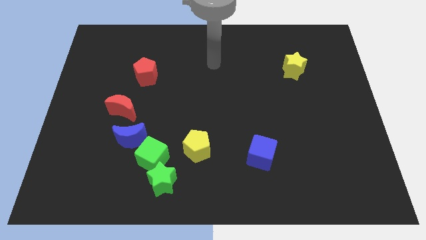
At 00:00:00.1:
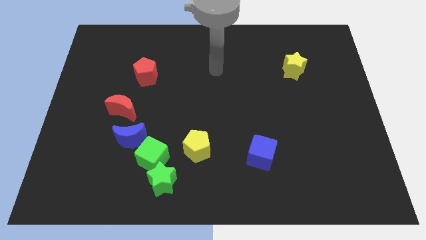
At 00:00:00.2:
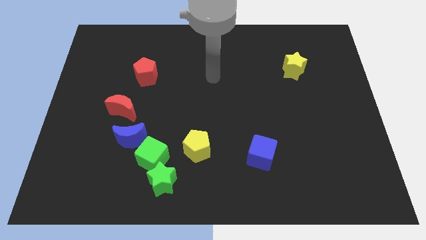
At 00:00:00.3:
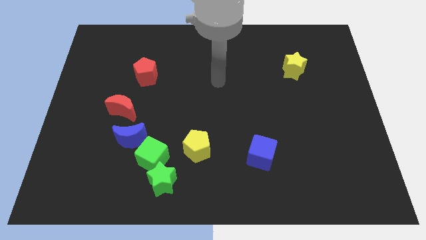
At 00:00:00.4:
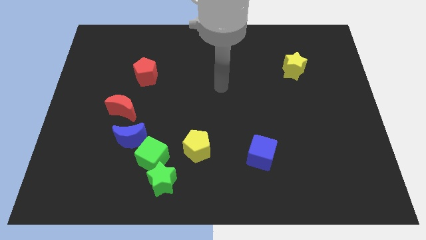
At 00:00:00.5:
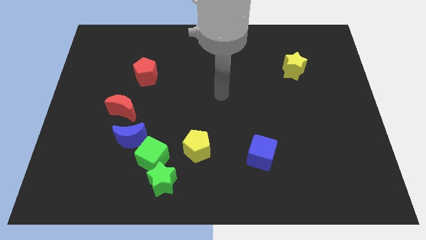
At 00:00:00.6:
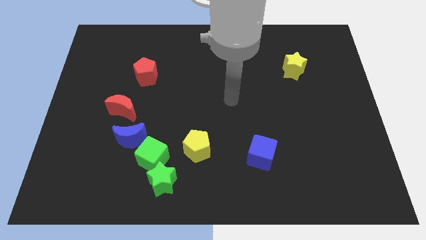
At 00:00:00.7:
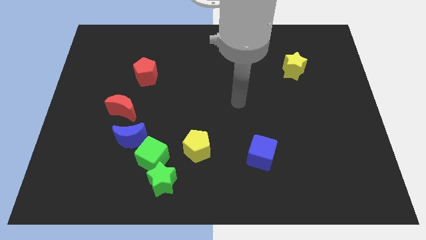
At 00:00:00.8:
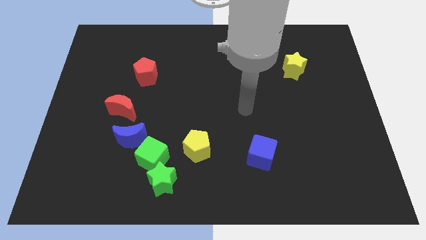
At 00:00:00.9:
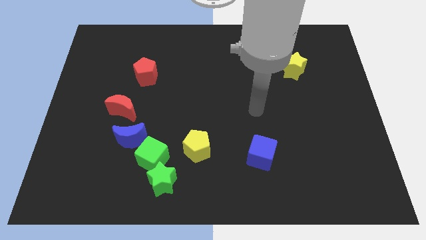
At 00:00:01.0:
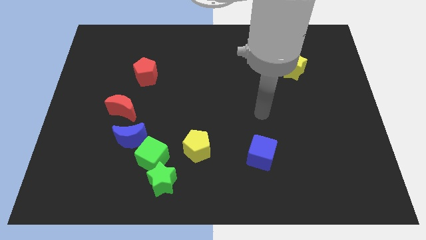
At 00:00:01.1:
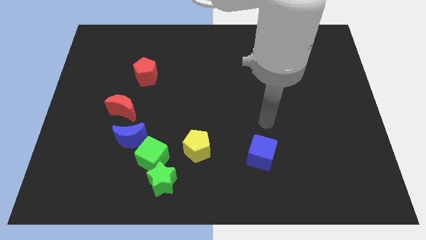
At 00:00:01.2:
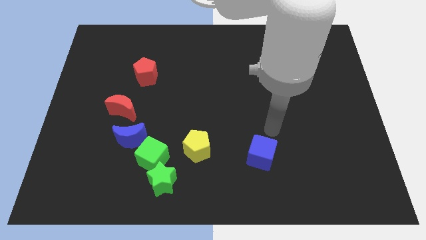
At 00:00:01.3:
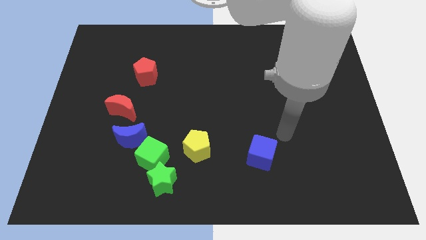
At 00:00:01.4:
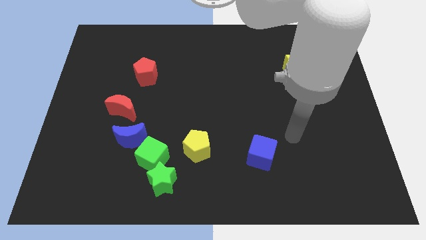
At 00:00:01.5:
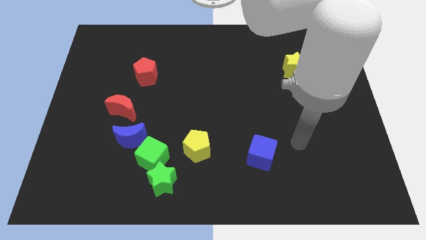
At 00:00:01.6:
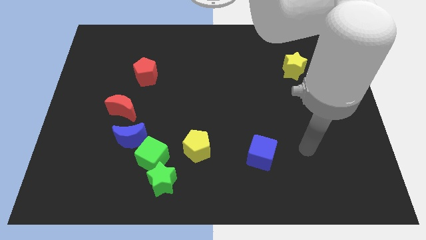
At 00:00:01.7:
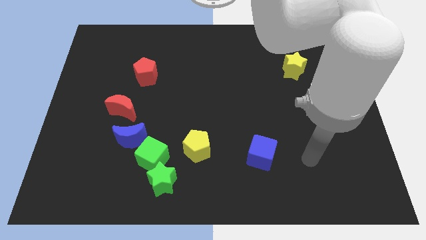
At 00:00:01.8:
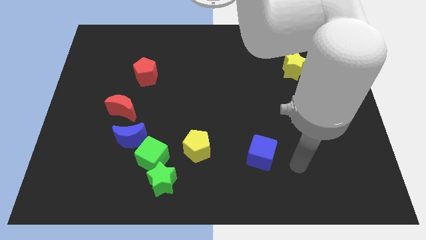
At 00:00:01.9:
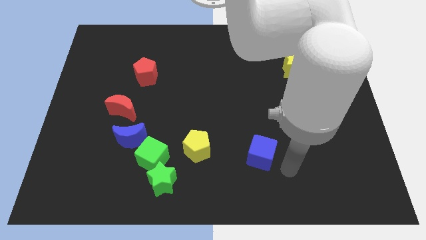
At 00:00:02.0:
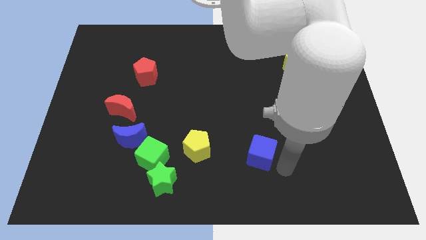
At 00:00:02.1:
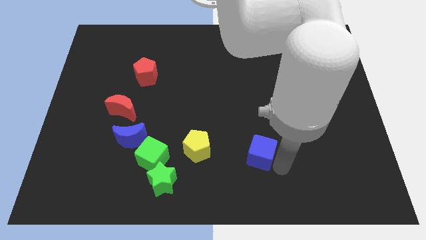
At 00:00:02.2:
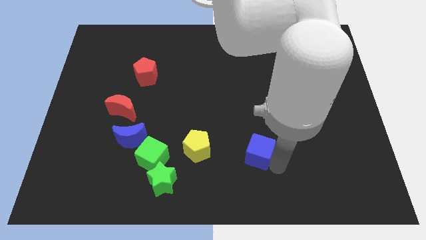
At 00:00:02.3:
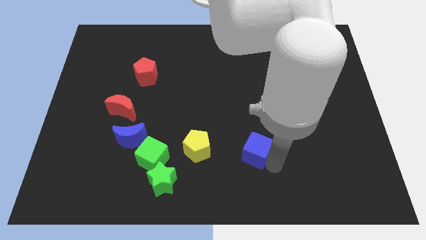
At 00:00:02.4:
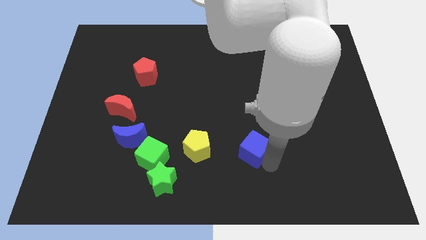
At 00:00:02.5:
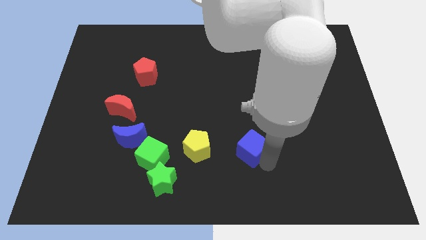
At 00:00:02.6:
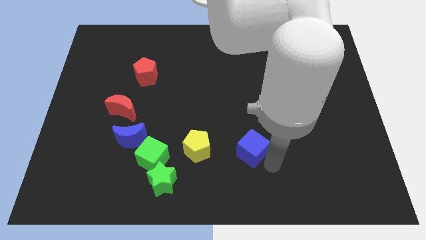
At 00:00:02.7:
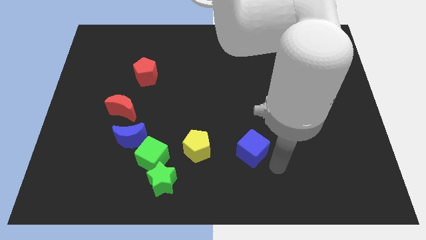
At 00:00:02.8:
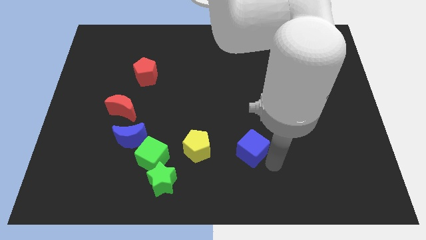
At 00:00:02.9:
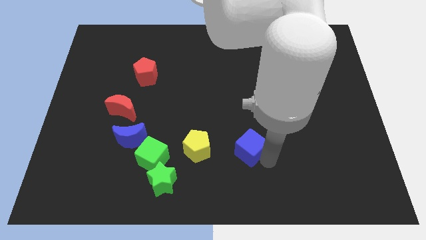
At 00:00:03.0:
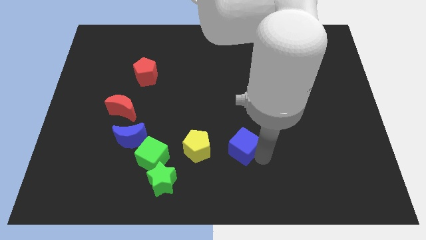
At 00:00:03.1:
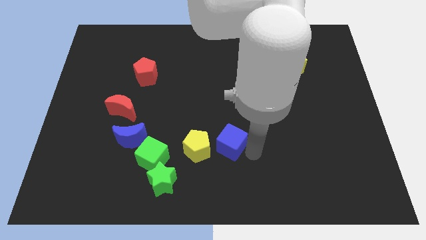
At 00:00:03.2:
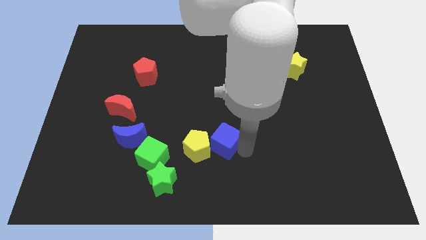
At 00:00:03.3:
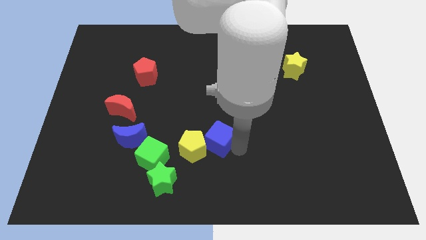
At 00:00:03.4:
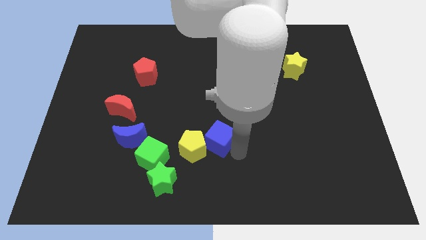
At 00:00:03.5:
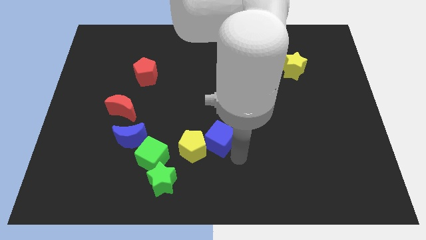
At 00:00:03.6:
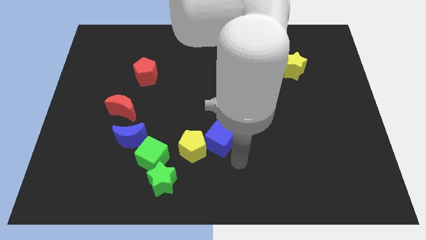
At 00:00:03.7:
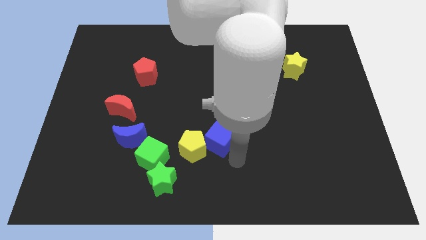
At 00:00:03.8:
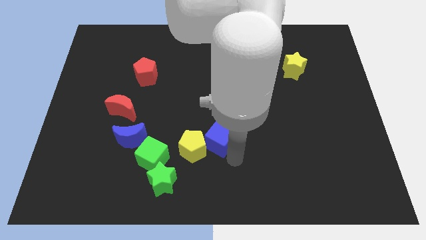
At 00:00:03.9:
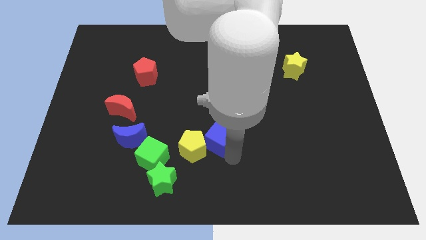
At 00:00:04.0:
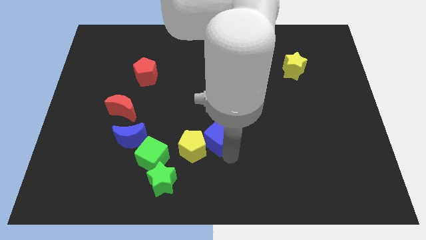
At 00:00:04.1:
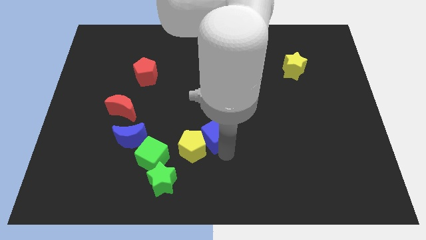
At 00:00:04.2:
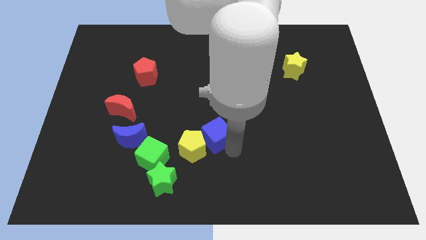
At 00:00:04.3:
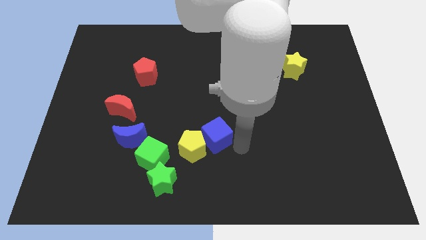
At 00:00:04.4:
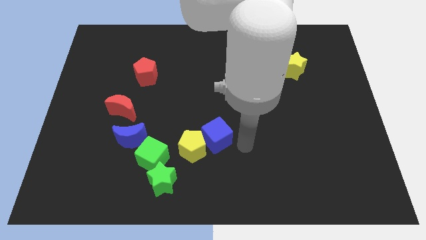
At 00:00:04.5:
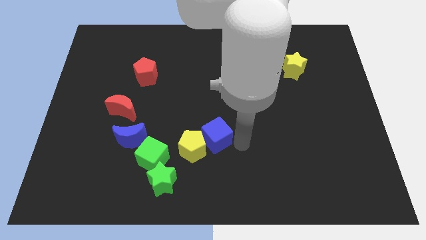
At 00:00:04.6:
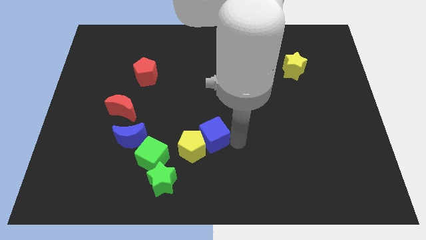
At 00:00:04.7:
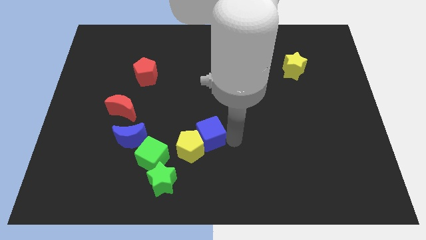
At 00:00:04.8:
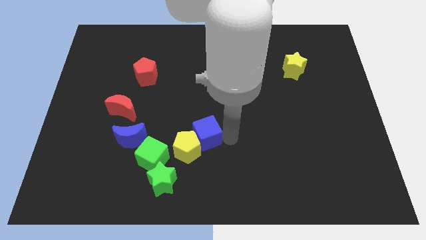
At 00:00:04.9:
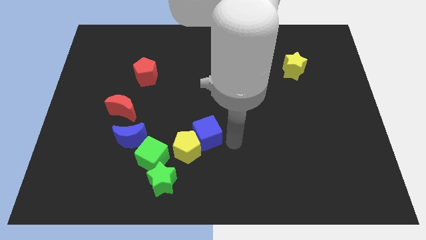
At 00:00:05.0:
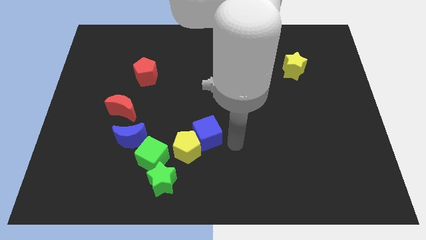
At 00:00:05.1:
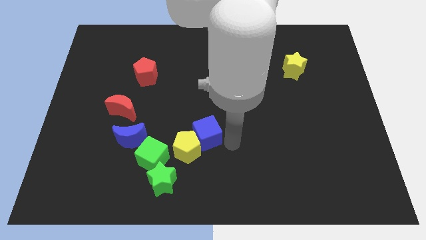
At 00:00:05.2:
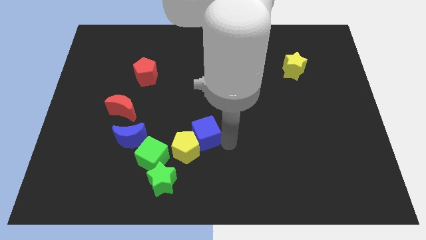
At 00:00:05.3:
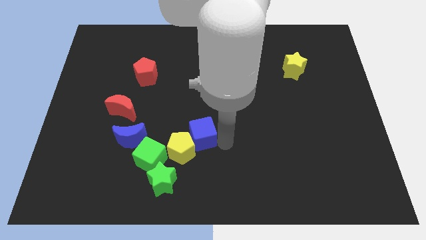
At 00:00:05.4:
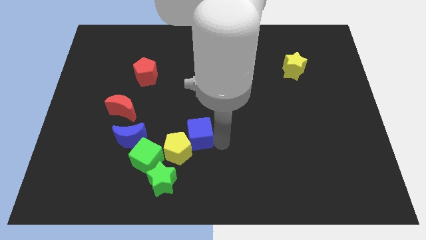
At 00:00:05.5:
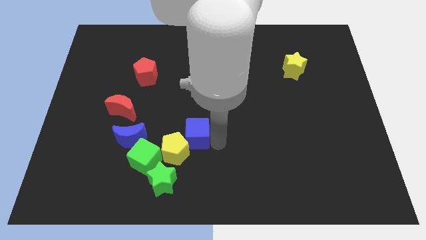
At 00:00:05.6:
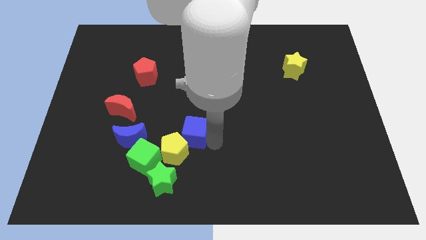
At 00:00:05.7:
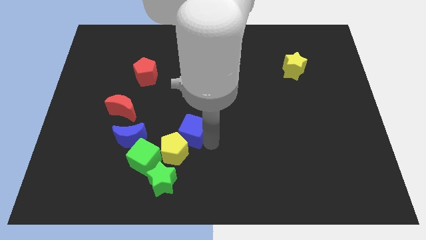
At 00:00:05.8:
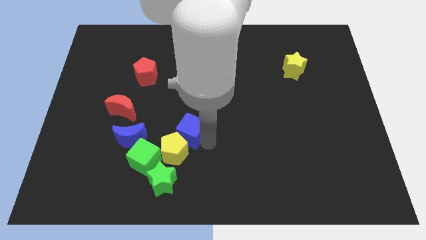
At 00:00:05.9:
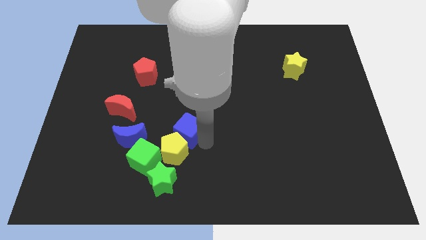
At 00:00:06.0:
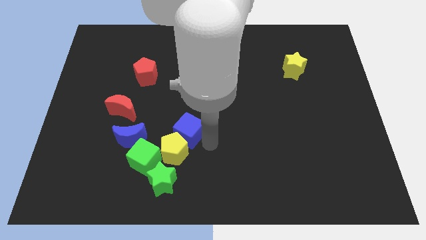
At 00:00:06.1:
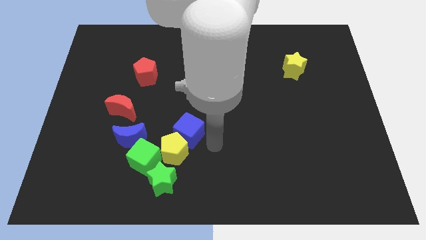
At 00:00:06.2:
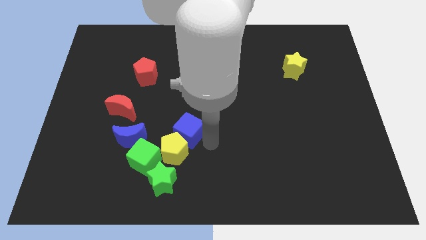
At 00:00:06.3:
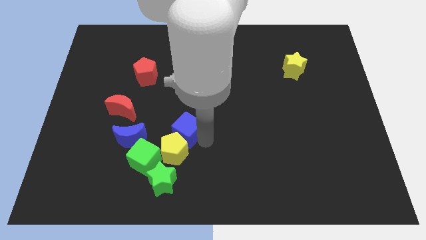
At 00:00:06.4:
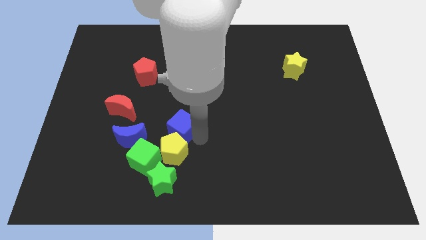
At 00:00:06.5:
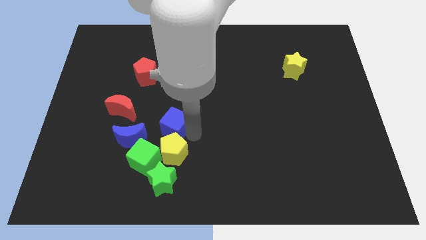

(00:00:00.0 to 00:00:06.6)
push the blue cube to the top right side of the blue moon

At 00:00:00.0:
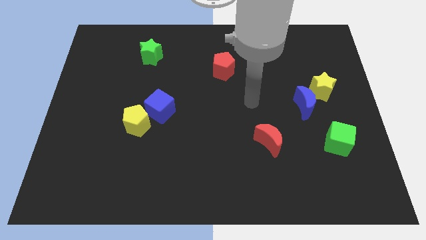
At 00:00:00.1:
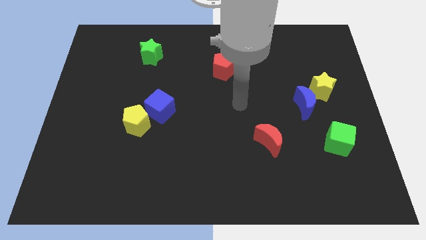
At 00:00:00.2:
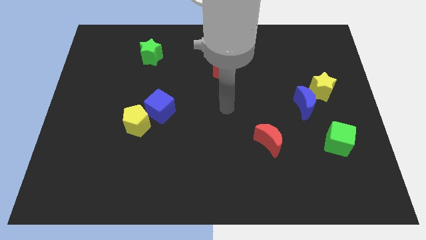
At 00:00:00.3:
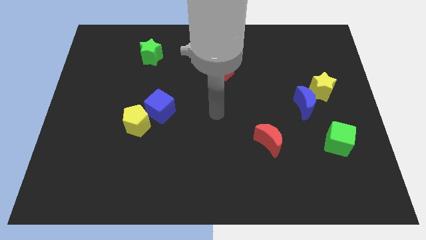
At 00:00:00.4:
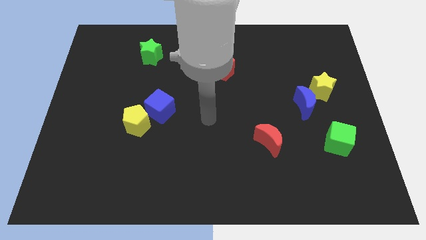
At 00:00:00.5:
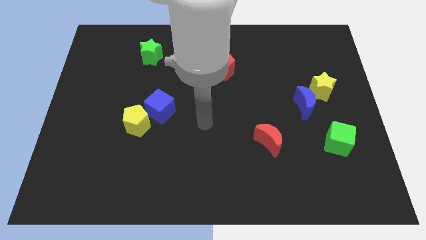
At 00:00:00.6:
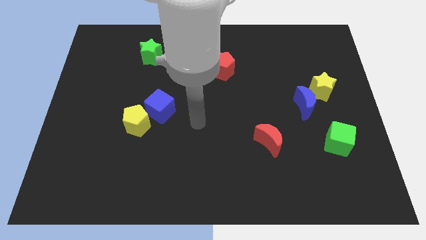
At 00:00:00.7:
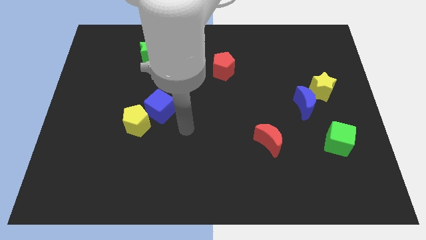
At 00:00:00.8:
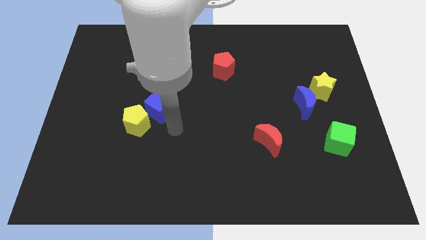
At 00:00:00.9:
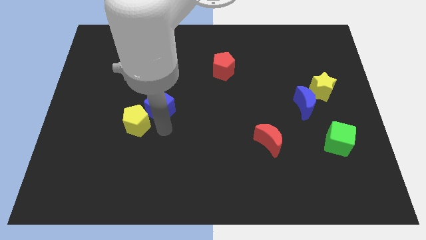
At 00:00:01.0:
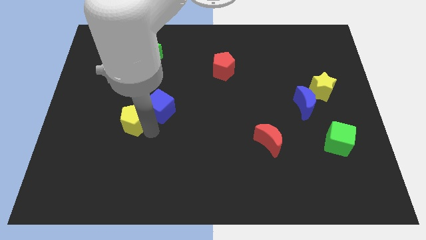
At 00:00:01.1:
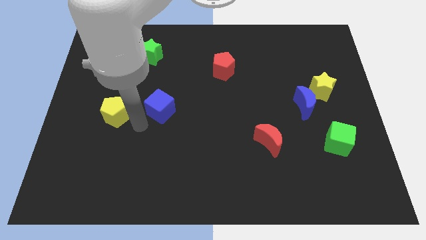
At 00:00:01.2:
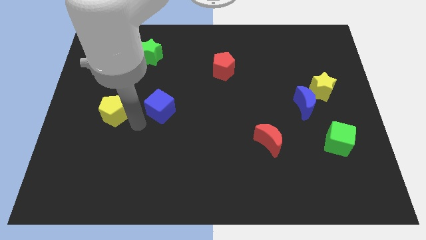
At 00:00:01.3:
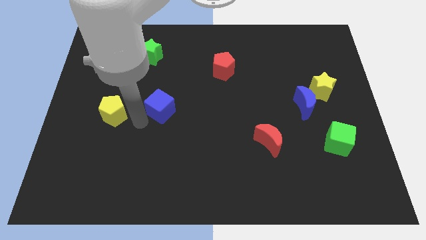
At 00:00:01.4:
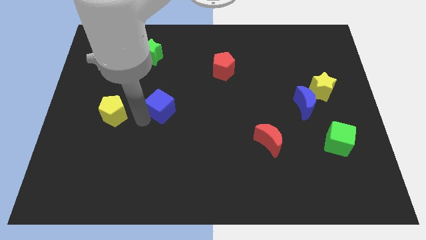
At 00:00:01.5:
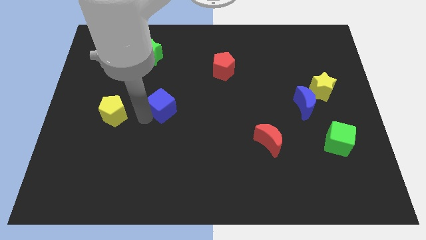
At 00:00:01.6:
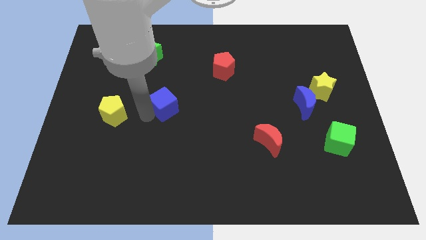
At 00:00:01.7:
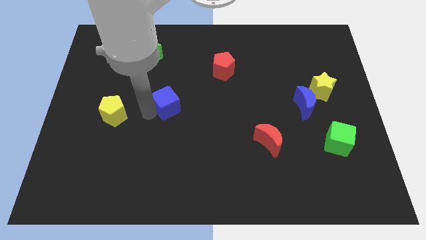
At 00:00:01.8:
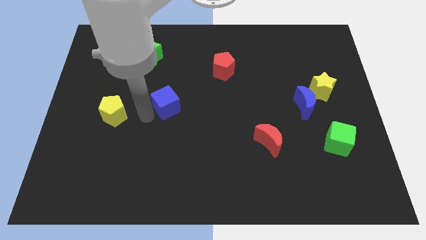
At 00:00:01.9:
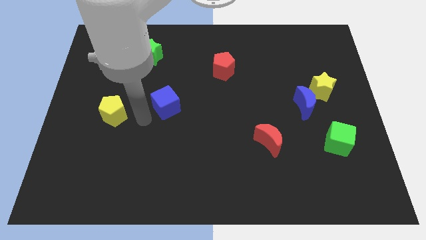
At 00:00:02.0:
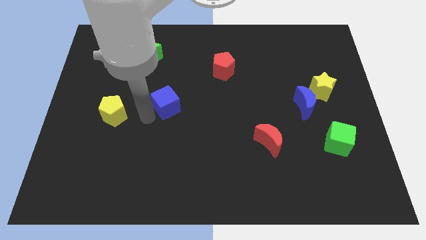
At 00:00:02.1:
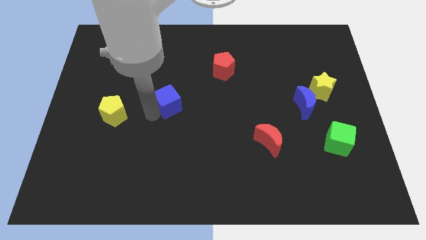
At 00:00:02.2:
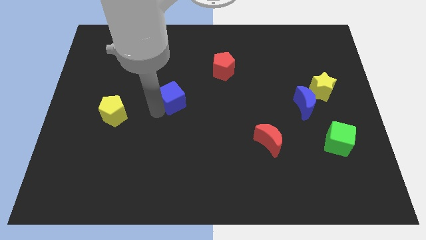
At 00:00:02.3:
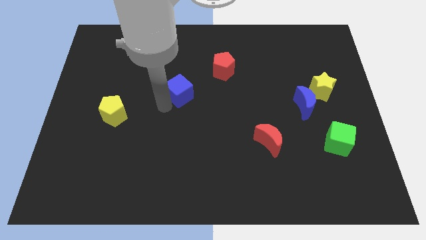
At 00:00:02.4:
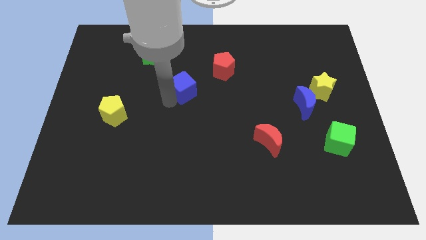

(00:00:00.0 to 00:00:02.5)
put the blue cube to the bottom left of the red pentagon
